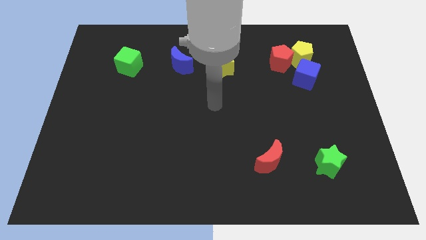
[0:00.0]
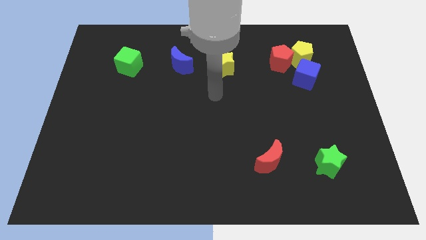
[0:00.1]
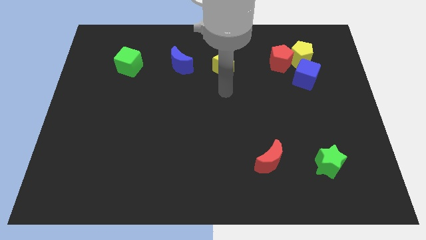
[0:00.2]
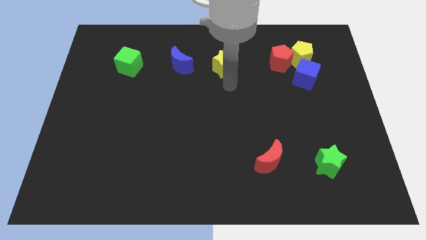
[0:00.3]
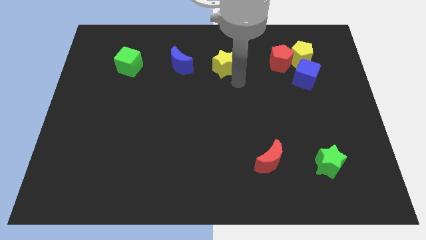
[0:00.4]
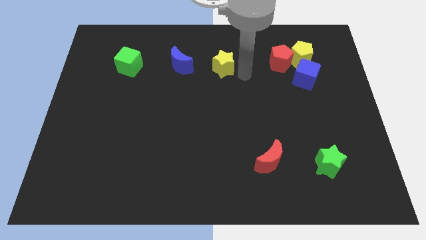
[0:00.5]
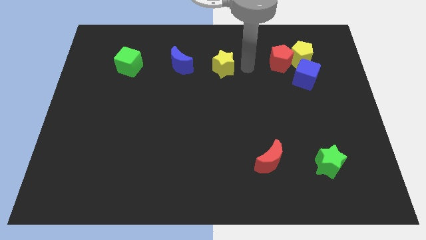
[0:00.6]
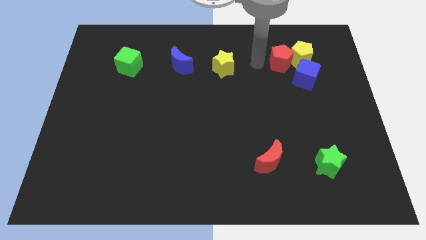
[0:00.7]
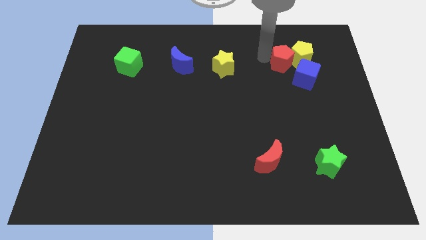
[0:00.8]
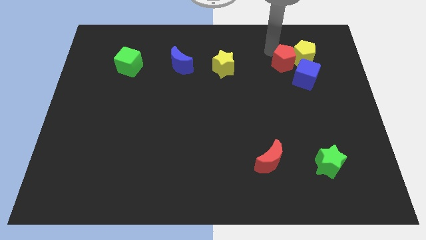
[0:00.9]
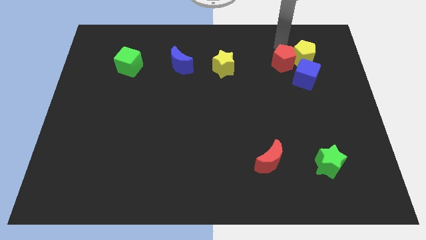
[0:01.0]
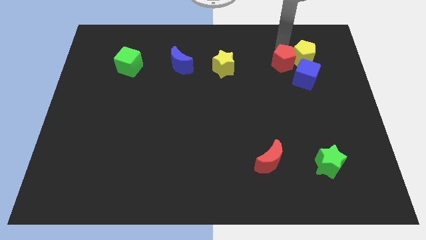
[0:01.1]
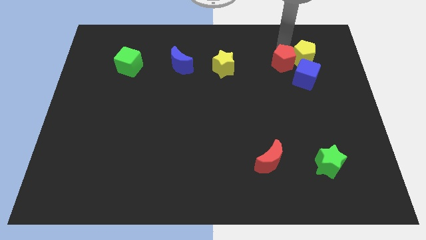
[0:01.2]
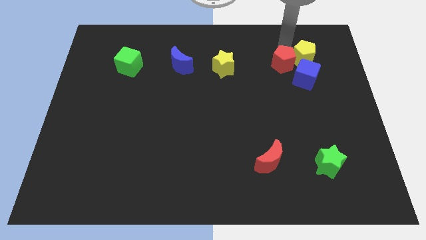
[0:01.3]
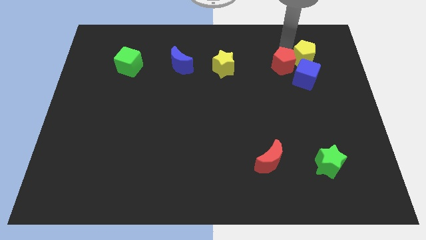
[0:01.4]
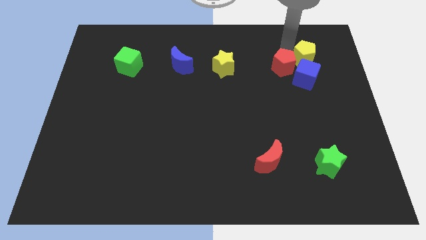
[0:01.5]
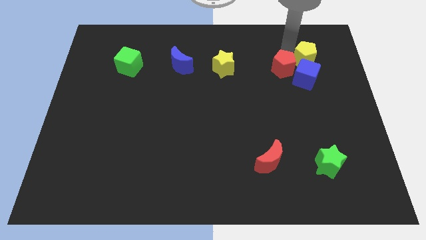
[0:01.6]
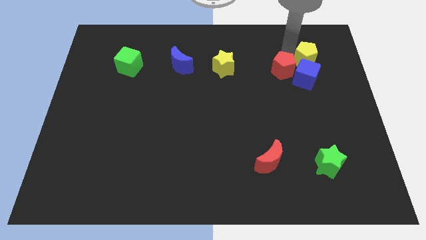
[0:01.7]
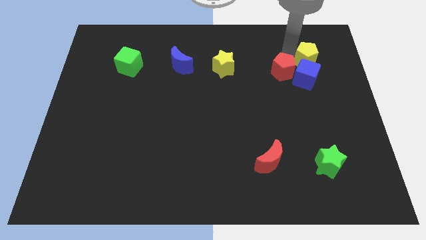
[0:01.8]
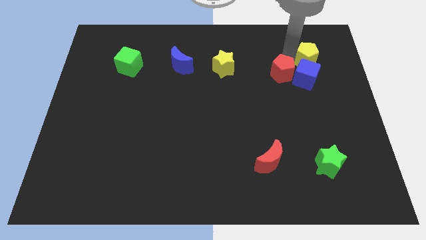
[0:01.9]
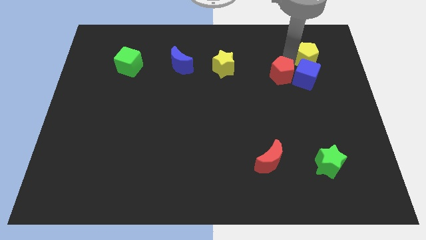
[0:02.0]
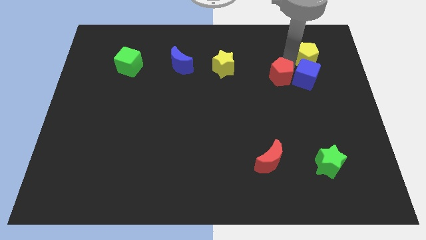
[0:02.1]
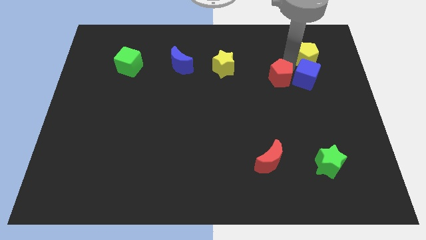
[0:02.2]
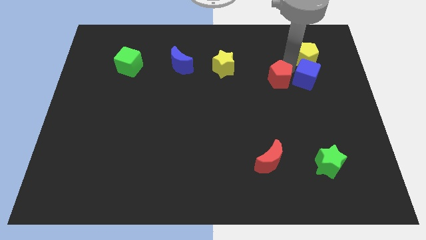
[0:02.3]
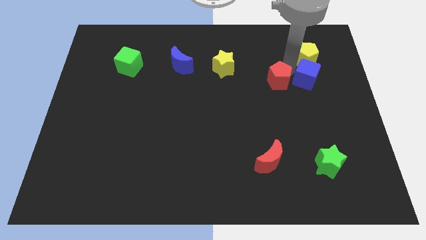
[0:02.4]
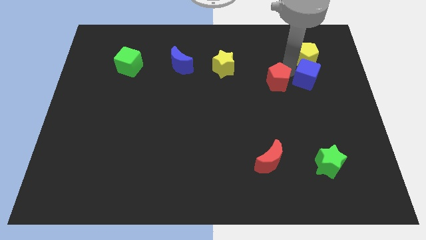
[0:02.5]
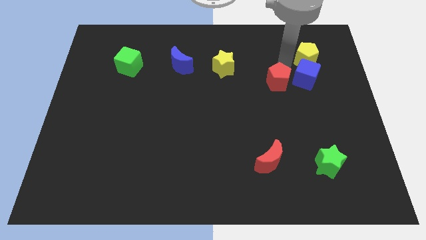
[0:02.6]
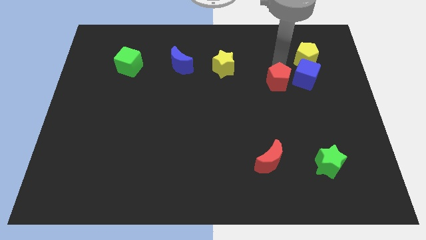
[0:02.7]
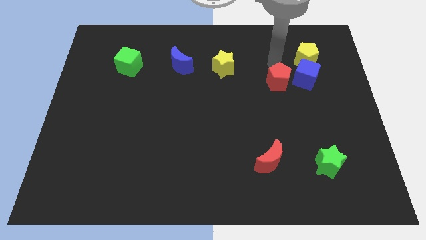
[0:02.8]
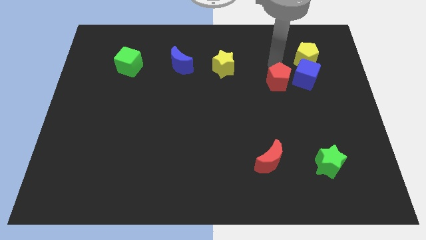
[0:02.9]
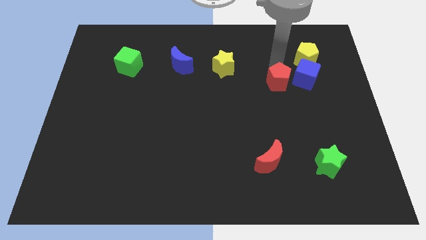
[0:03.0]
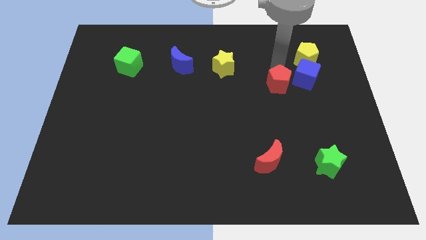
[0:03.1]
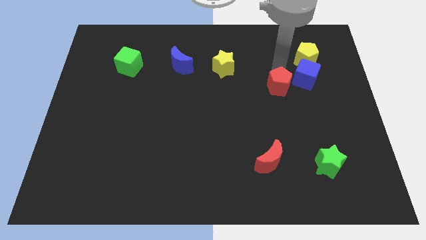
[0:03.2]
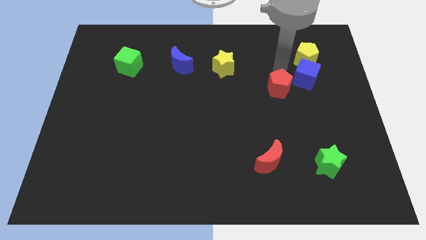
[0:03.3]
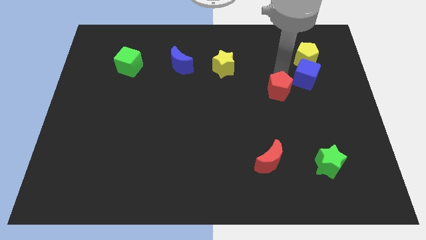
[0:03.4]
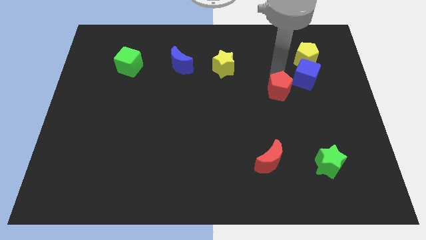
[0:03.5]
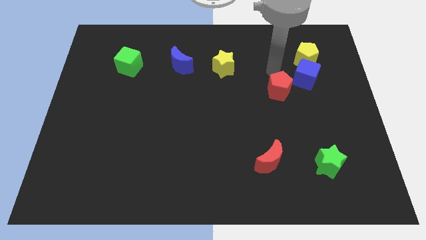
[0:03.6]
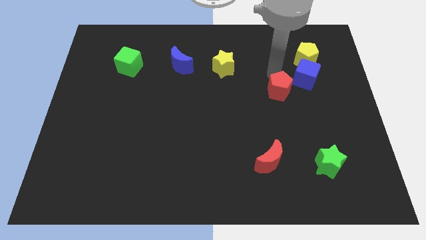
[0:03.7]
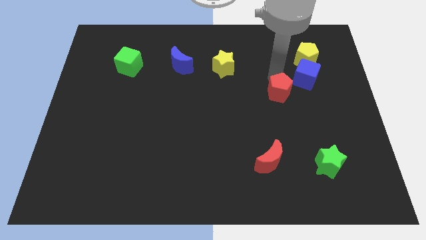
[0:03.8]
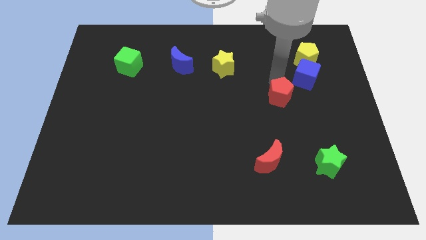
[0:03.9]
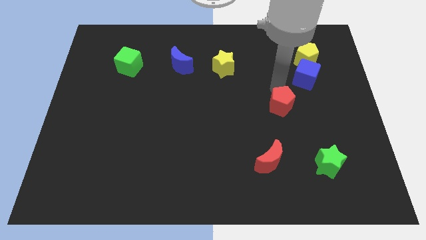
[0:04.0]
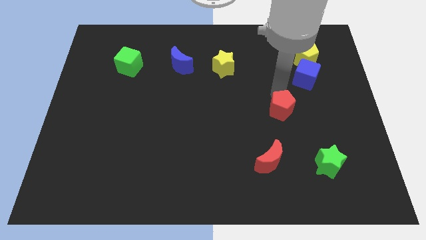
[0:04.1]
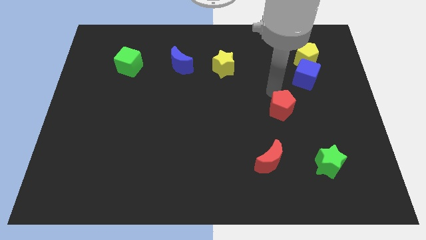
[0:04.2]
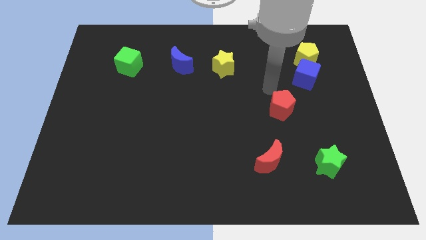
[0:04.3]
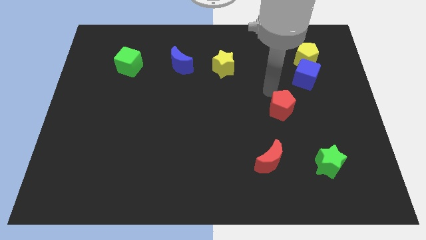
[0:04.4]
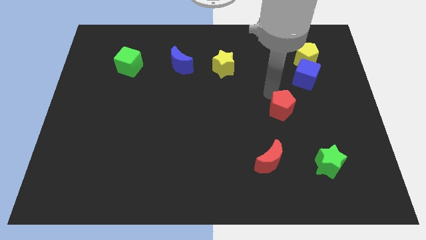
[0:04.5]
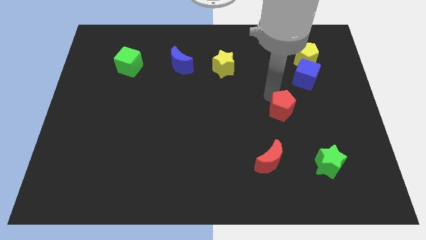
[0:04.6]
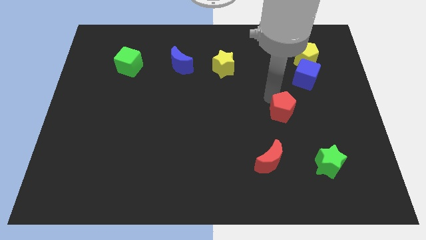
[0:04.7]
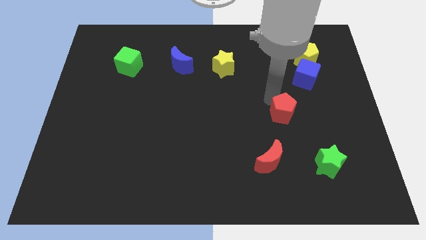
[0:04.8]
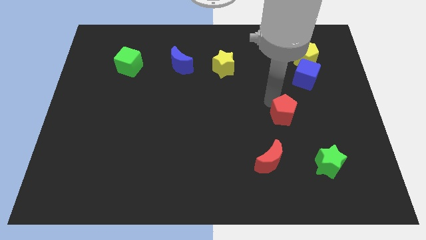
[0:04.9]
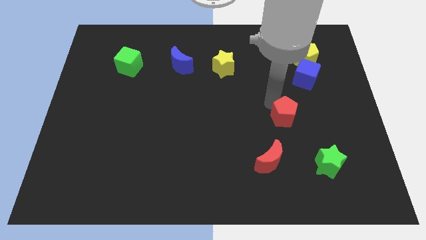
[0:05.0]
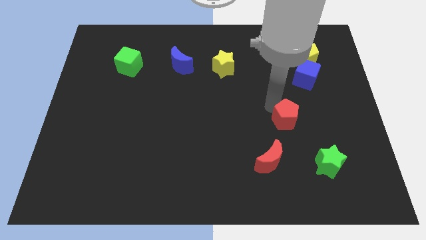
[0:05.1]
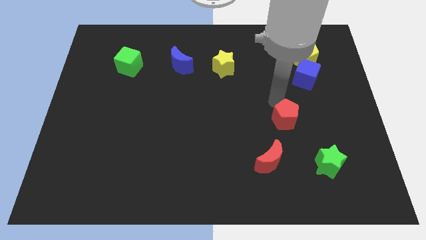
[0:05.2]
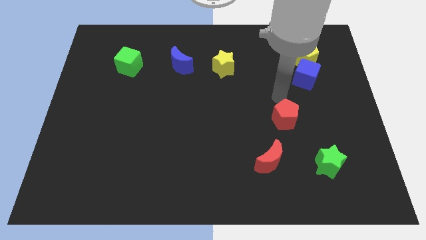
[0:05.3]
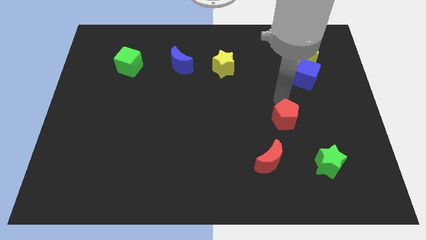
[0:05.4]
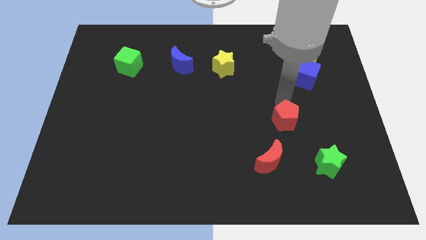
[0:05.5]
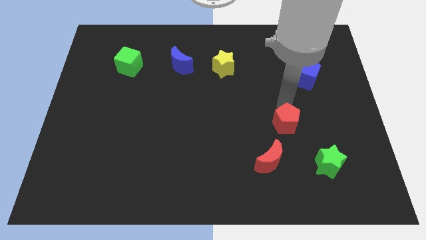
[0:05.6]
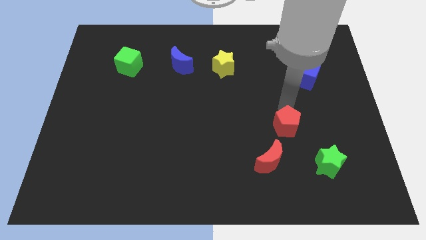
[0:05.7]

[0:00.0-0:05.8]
move the red pentagon downwards

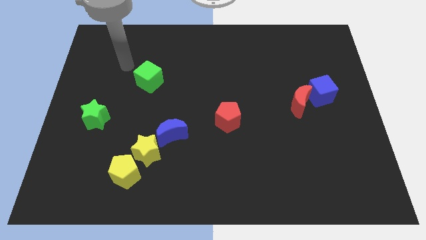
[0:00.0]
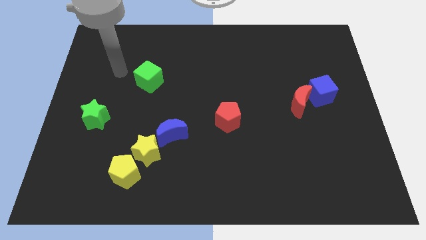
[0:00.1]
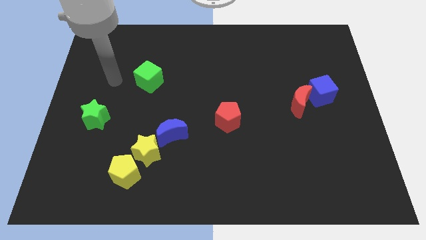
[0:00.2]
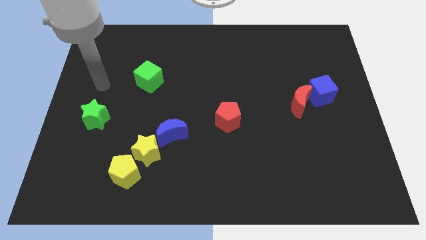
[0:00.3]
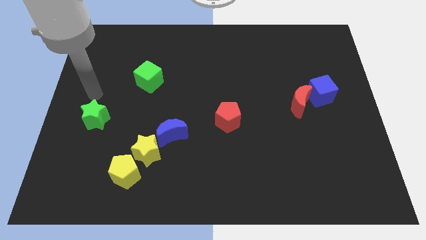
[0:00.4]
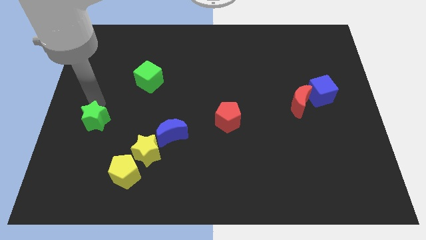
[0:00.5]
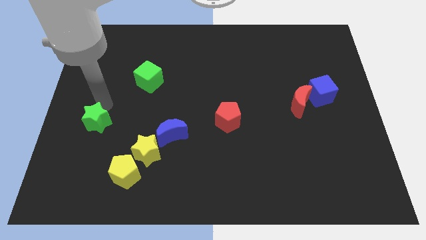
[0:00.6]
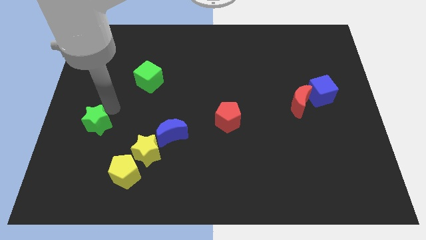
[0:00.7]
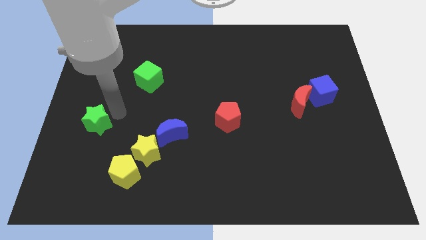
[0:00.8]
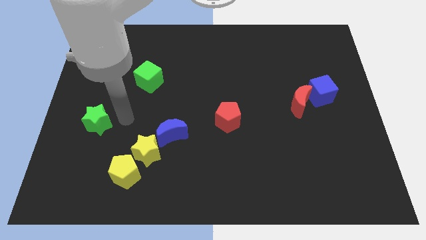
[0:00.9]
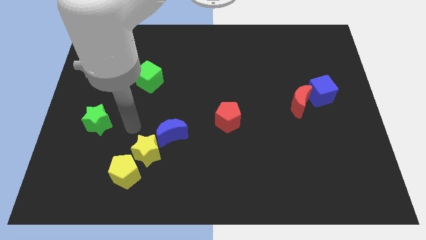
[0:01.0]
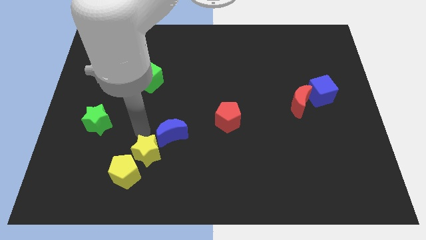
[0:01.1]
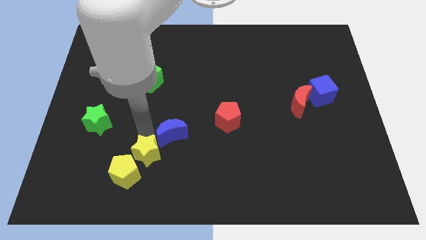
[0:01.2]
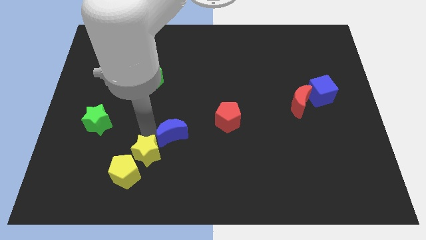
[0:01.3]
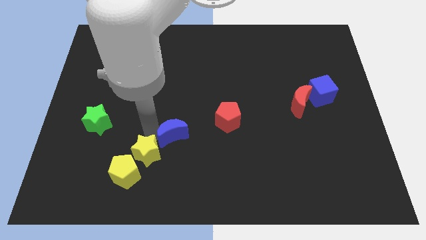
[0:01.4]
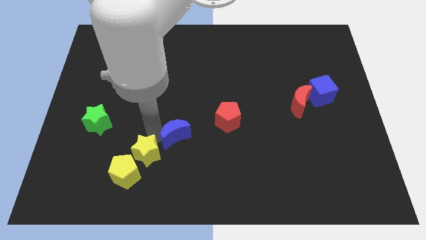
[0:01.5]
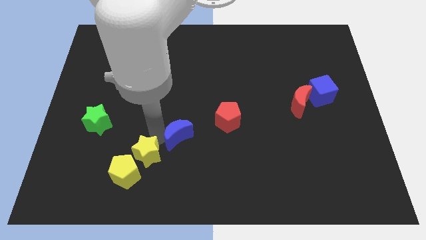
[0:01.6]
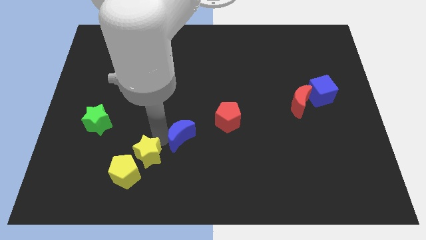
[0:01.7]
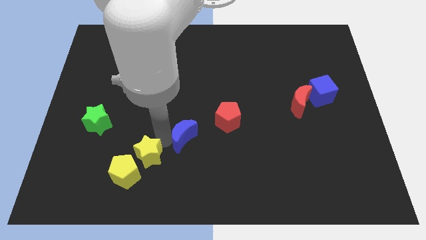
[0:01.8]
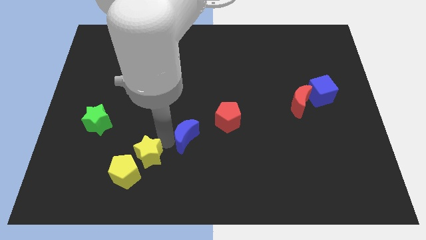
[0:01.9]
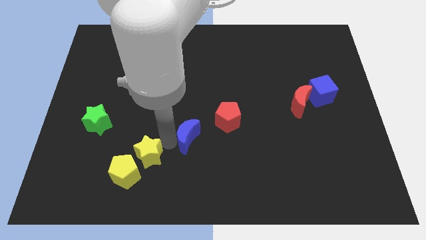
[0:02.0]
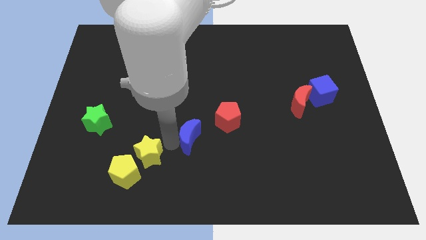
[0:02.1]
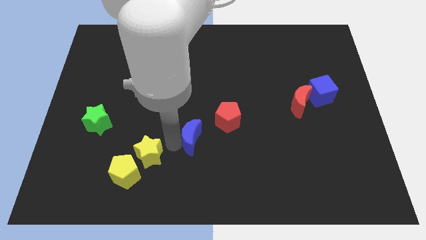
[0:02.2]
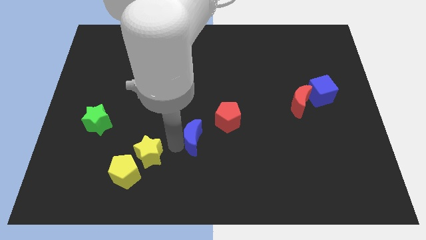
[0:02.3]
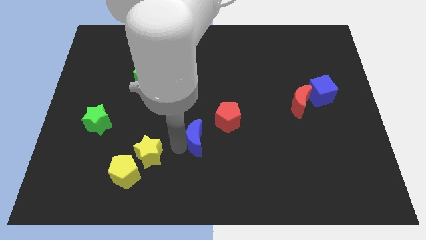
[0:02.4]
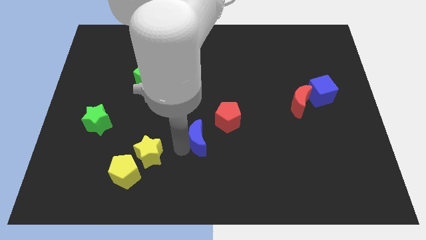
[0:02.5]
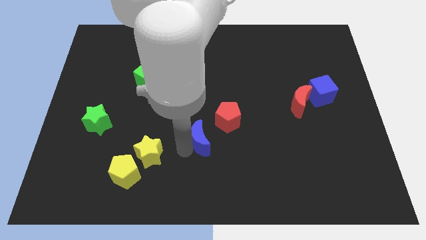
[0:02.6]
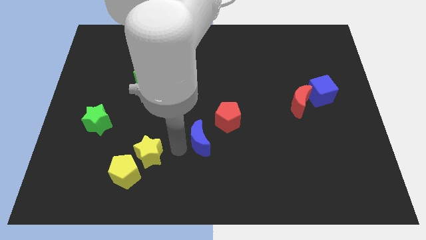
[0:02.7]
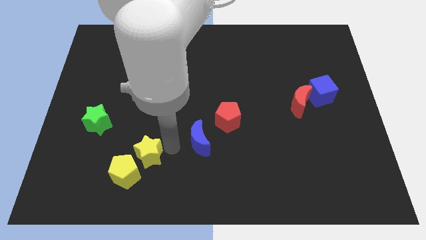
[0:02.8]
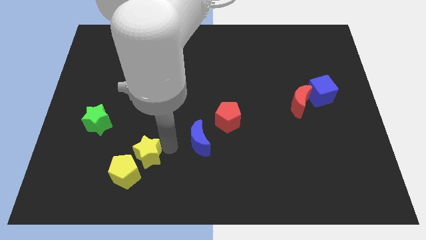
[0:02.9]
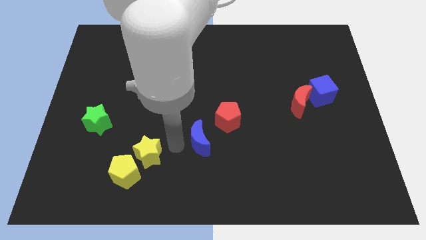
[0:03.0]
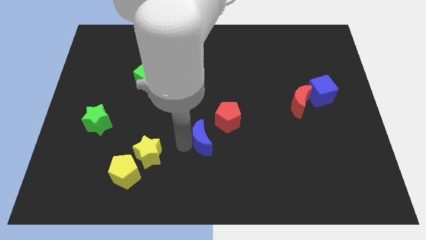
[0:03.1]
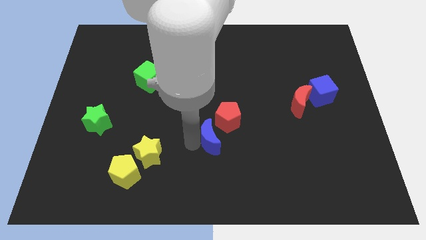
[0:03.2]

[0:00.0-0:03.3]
slightly push the blue moon right
